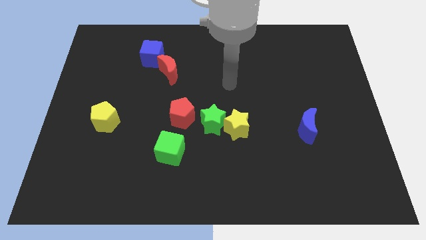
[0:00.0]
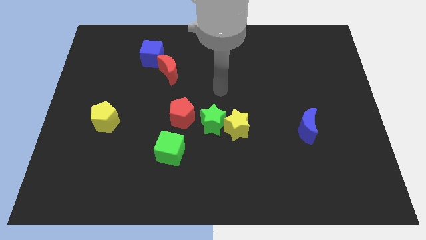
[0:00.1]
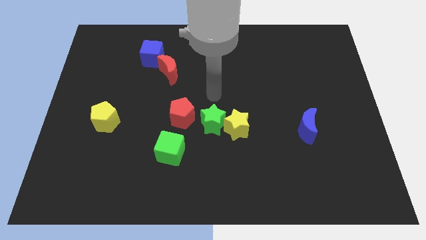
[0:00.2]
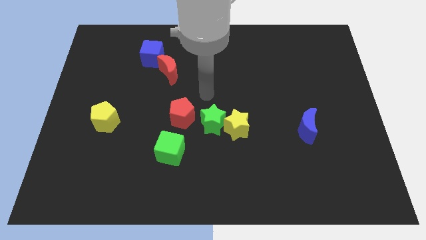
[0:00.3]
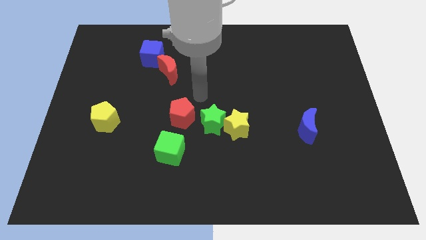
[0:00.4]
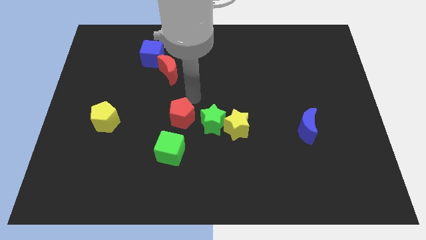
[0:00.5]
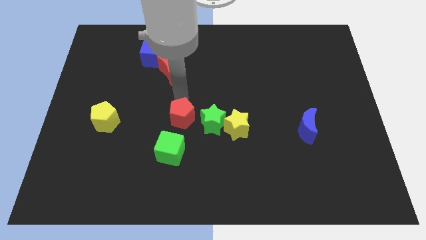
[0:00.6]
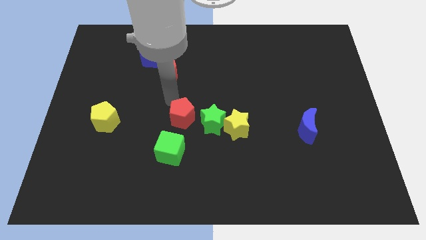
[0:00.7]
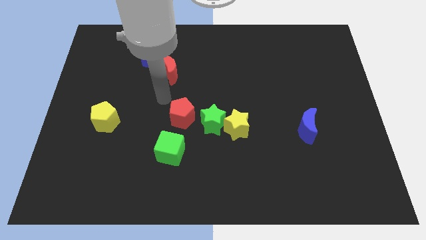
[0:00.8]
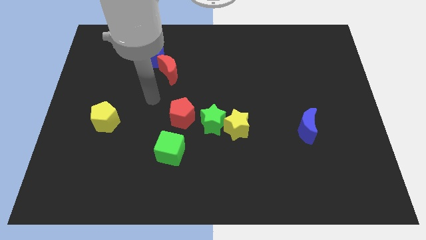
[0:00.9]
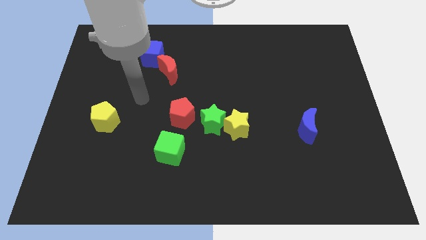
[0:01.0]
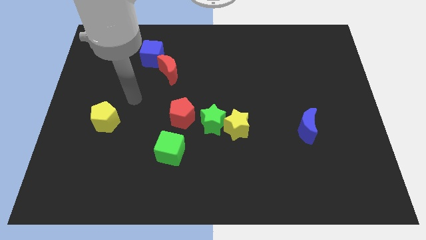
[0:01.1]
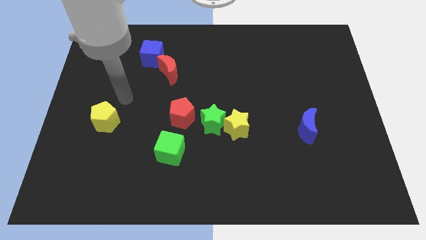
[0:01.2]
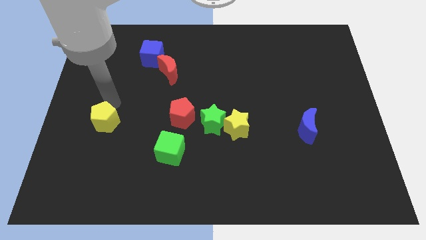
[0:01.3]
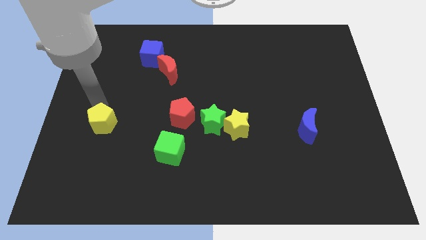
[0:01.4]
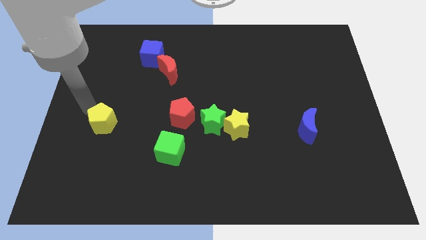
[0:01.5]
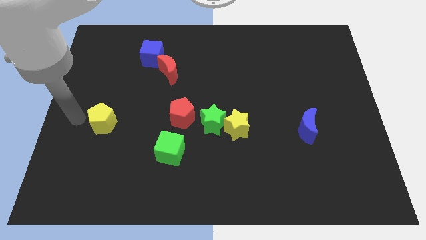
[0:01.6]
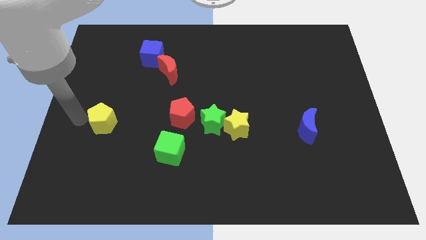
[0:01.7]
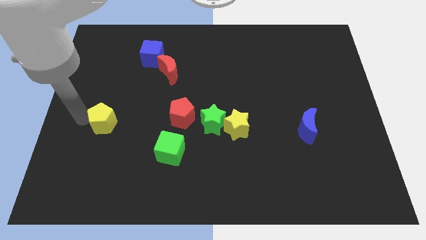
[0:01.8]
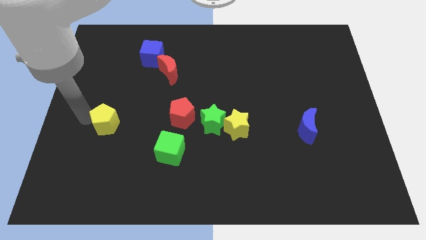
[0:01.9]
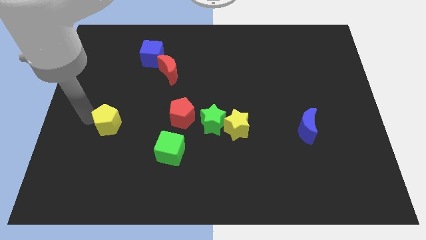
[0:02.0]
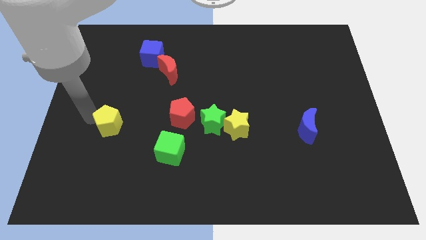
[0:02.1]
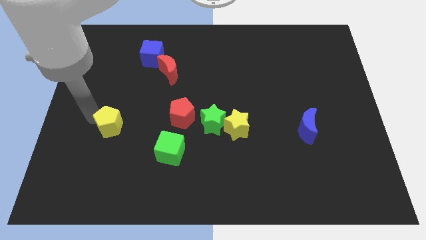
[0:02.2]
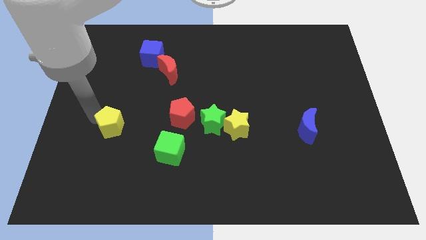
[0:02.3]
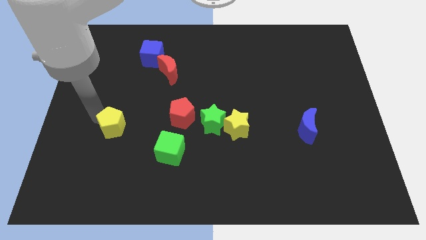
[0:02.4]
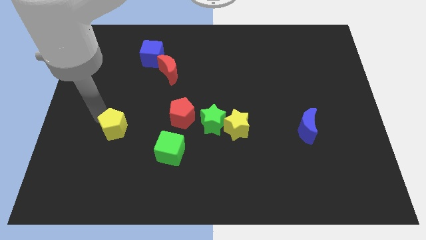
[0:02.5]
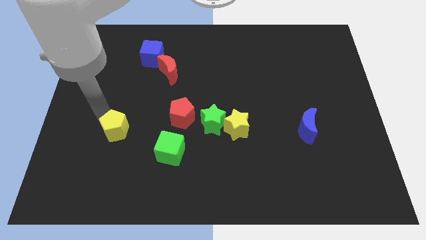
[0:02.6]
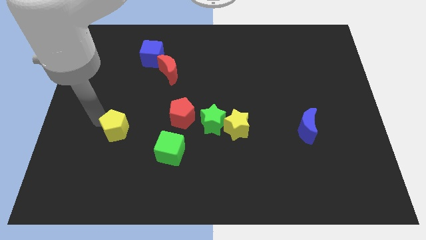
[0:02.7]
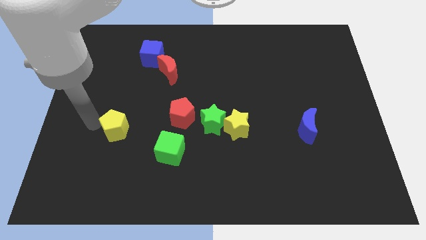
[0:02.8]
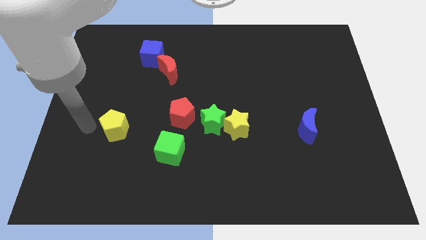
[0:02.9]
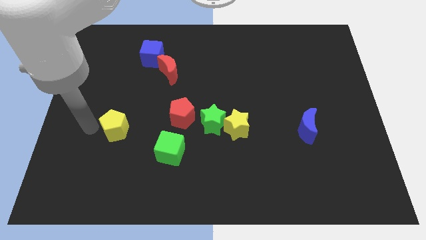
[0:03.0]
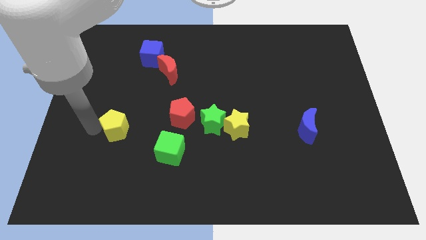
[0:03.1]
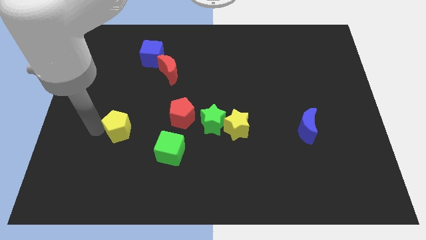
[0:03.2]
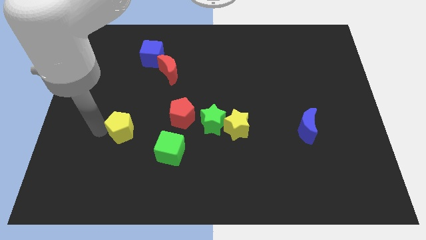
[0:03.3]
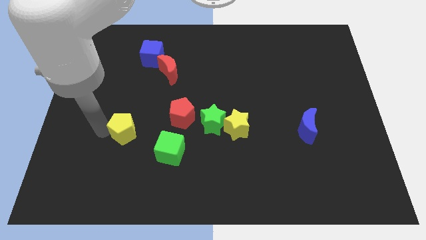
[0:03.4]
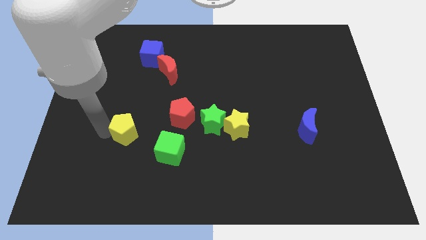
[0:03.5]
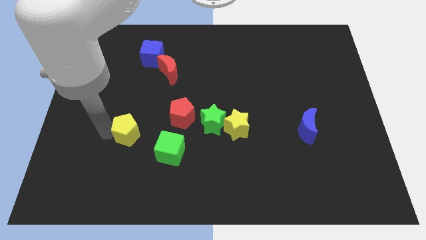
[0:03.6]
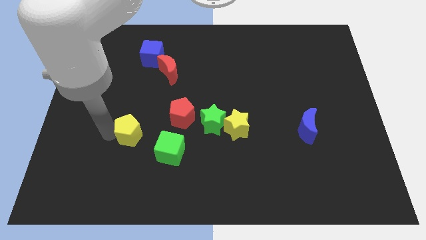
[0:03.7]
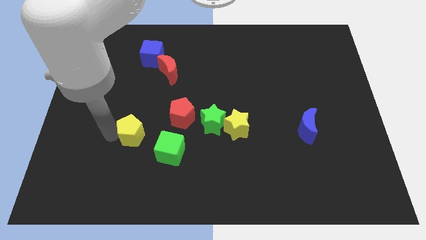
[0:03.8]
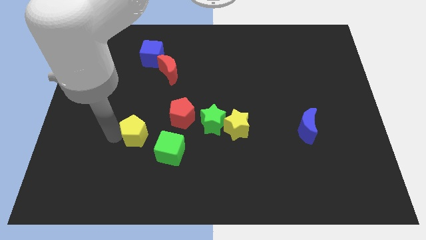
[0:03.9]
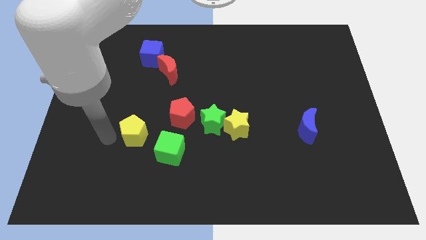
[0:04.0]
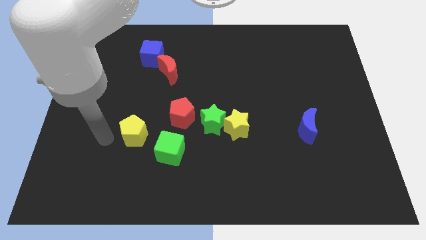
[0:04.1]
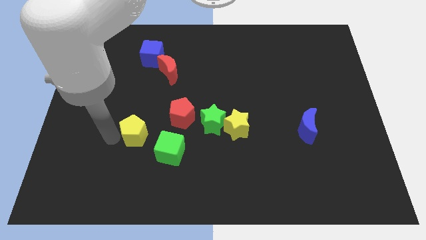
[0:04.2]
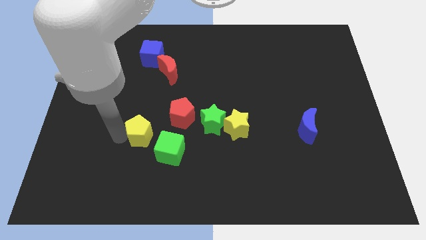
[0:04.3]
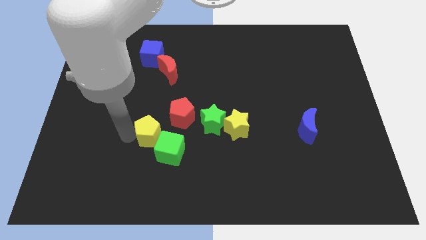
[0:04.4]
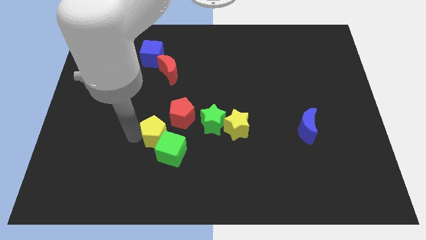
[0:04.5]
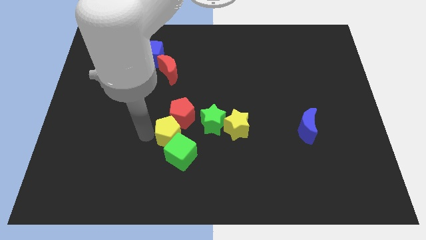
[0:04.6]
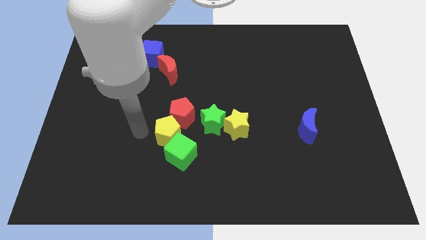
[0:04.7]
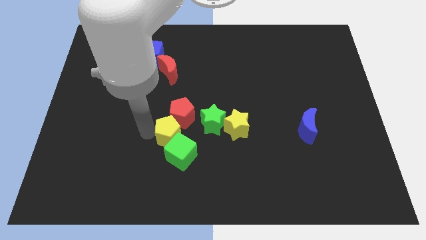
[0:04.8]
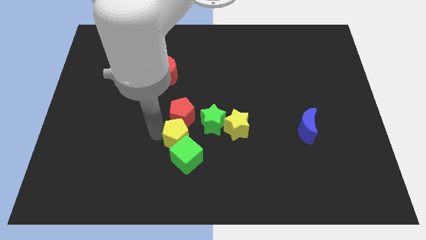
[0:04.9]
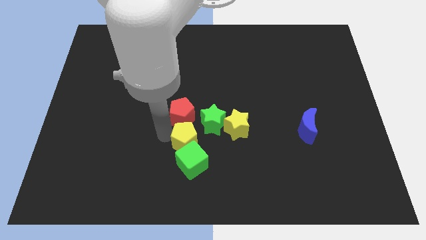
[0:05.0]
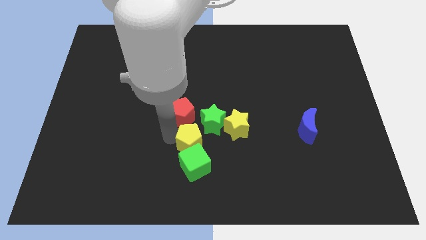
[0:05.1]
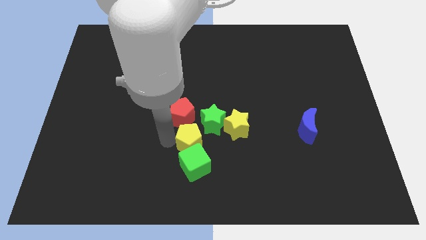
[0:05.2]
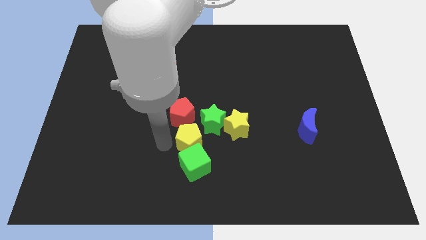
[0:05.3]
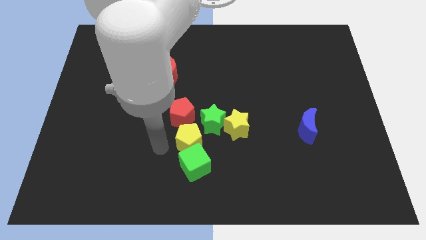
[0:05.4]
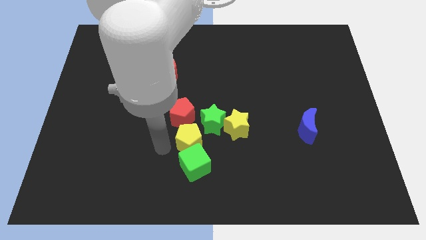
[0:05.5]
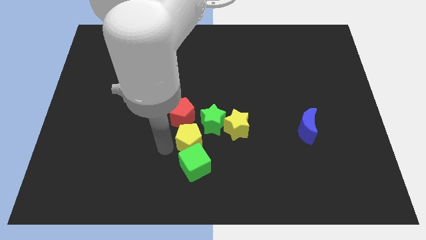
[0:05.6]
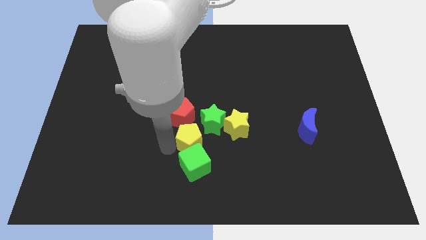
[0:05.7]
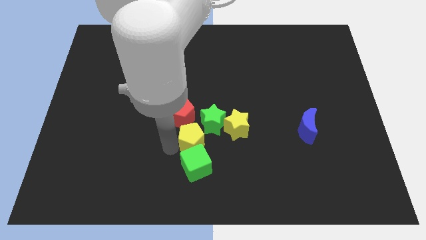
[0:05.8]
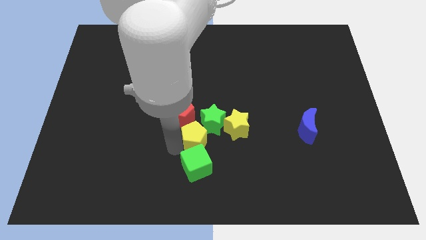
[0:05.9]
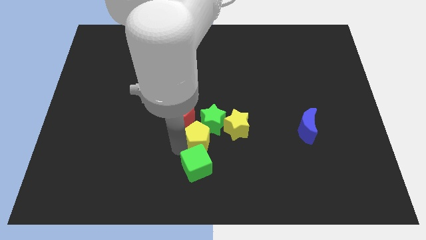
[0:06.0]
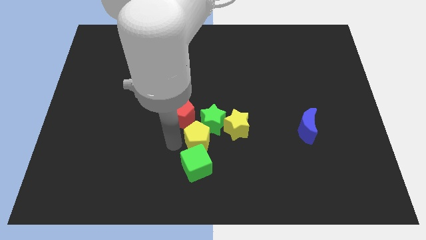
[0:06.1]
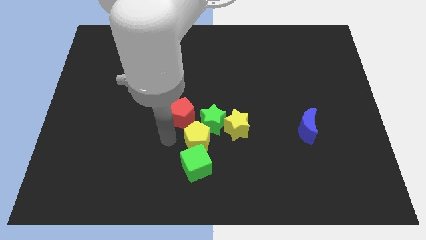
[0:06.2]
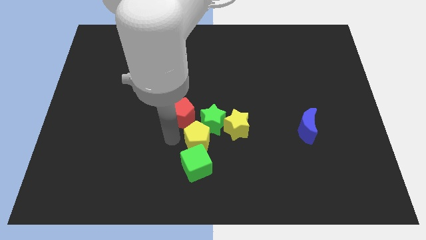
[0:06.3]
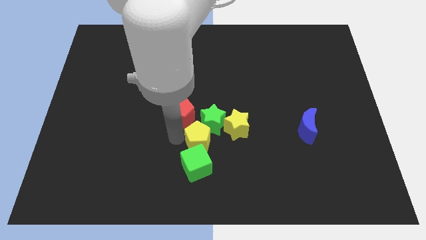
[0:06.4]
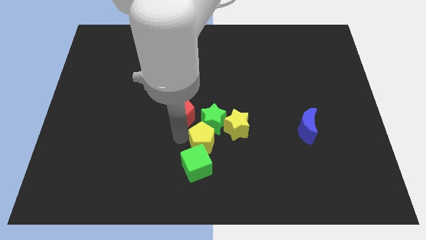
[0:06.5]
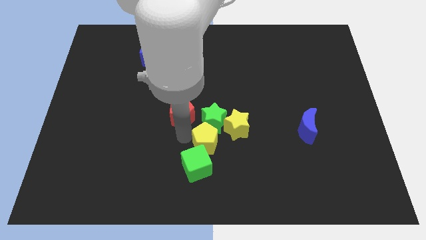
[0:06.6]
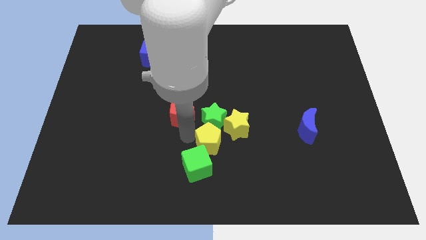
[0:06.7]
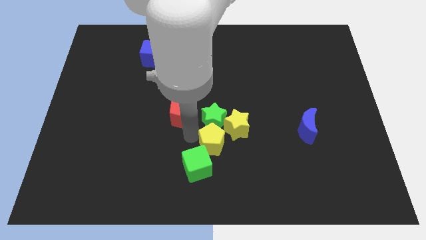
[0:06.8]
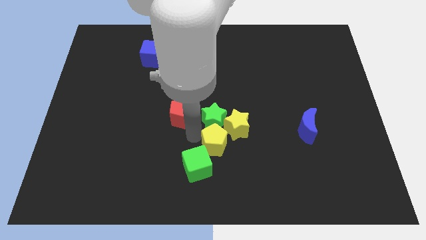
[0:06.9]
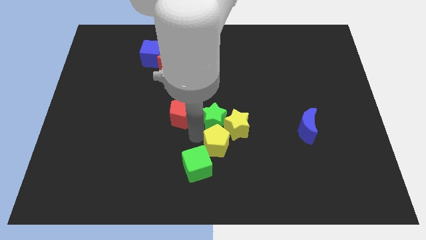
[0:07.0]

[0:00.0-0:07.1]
move the yellow pentagon towards the yellow star
